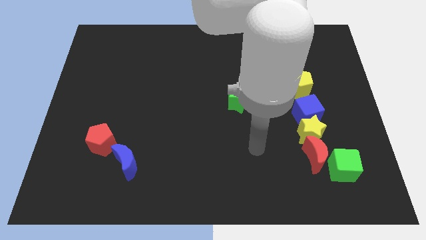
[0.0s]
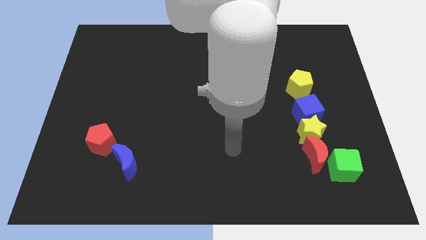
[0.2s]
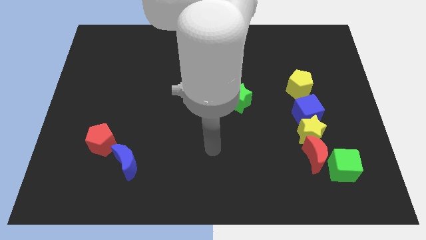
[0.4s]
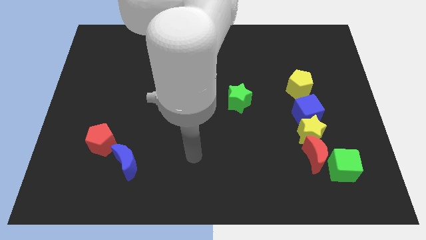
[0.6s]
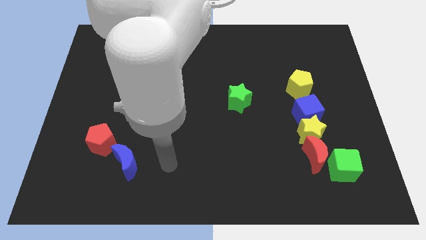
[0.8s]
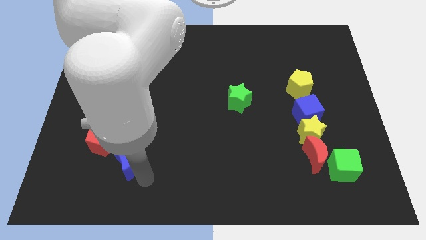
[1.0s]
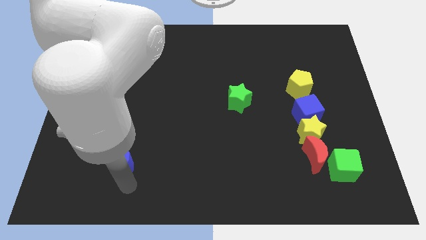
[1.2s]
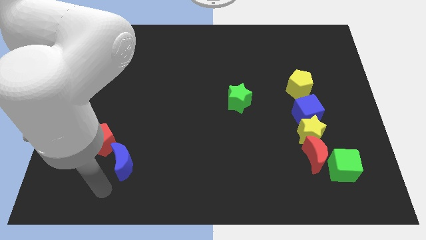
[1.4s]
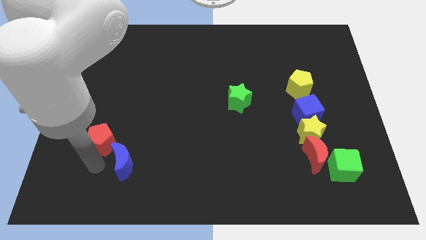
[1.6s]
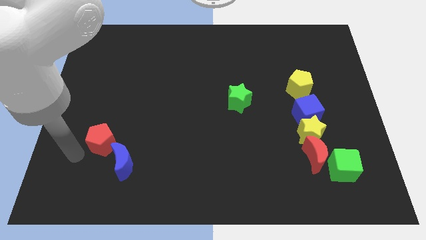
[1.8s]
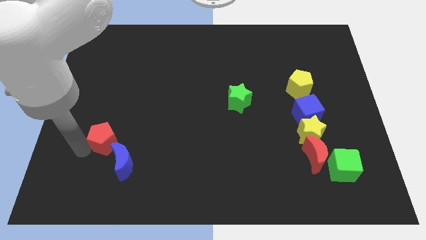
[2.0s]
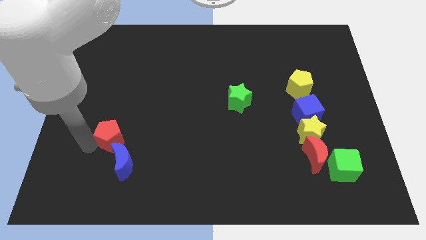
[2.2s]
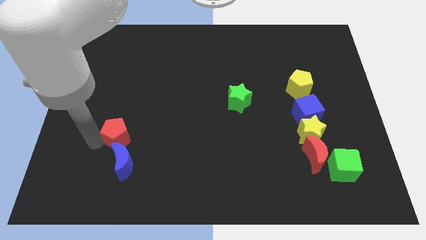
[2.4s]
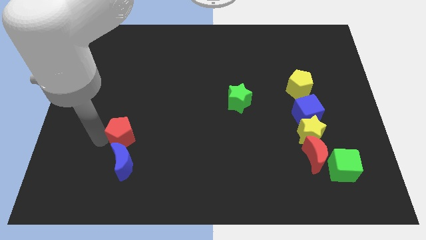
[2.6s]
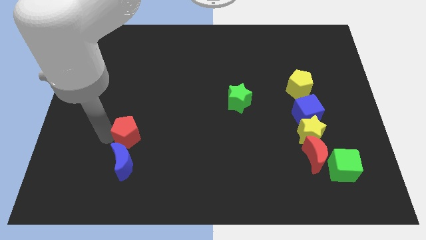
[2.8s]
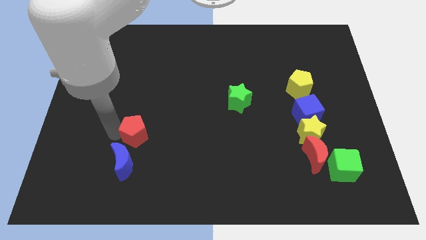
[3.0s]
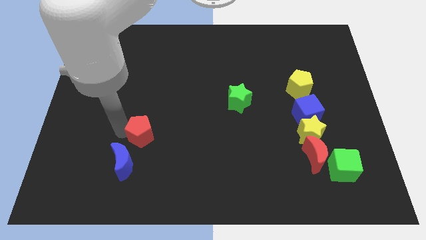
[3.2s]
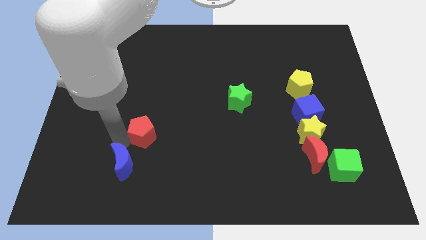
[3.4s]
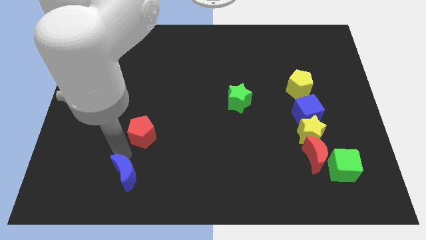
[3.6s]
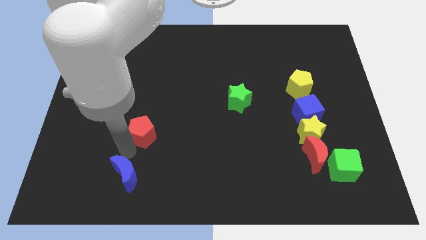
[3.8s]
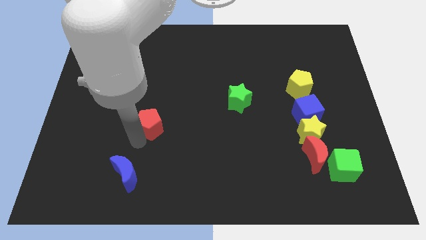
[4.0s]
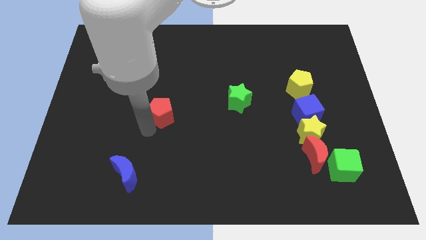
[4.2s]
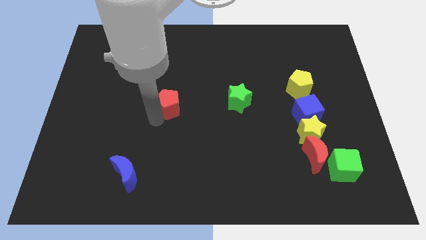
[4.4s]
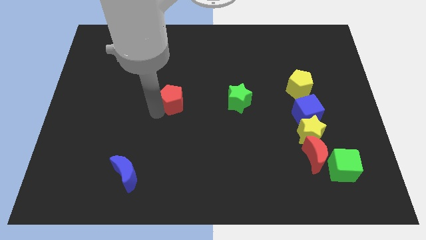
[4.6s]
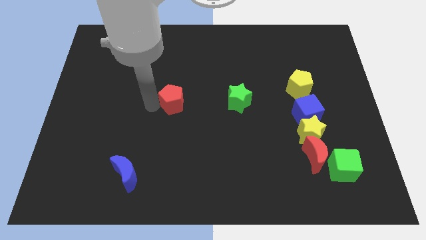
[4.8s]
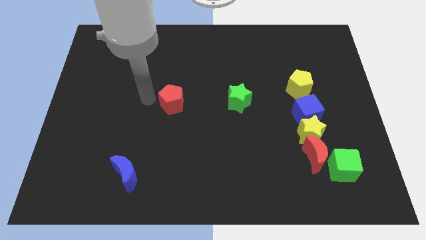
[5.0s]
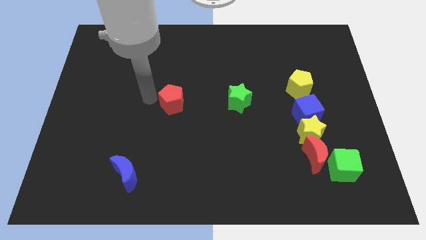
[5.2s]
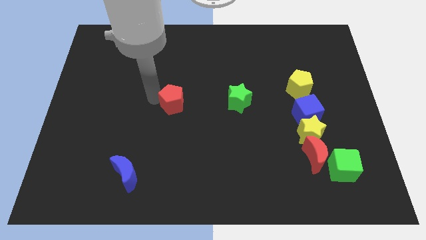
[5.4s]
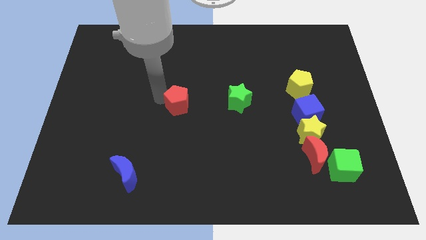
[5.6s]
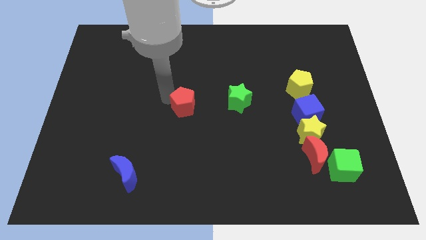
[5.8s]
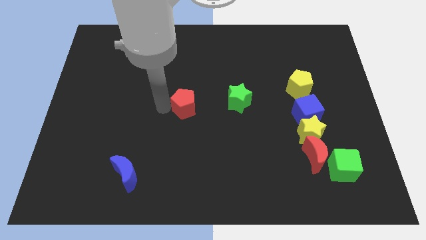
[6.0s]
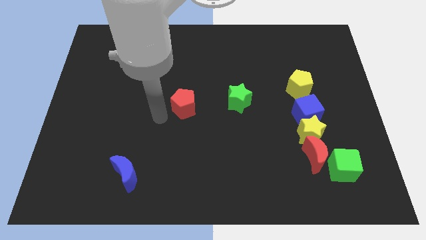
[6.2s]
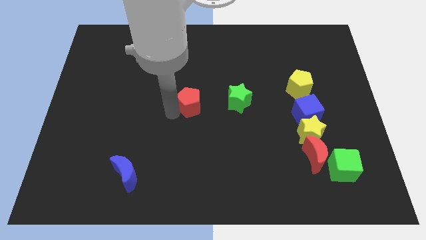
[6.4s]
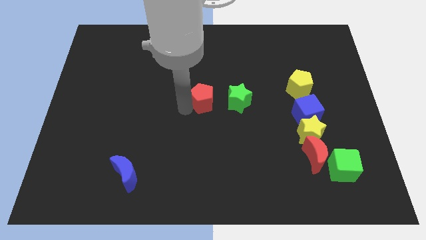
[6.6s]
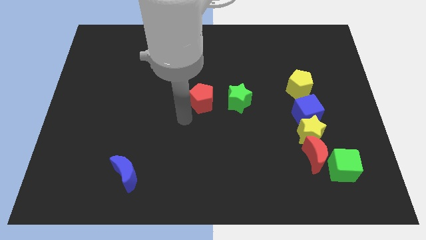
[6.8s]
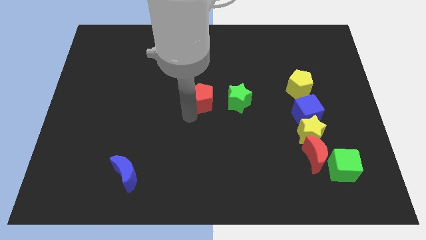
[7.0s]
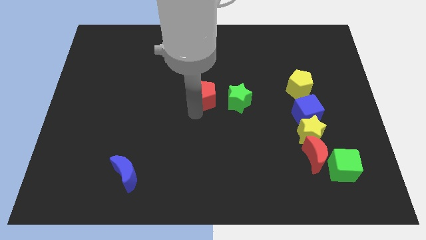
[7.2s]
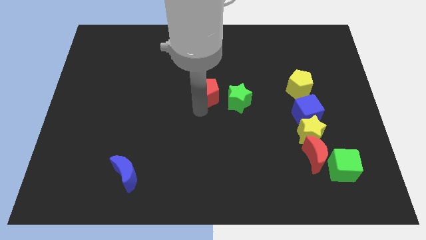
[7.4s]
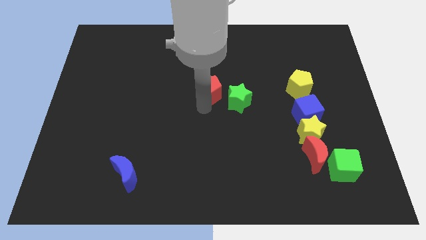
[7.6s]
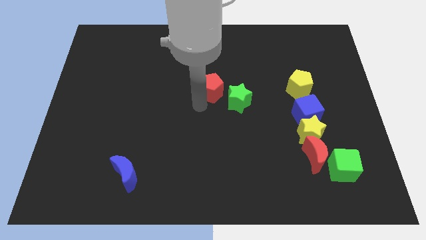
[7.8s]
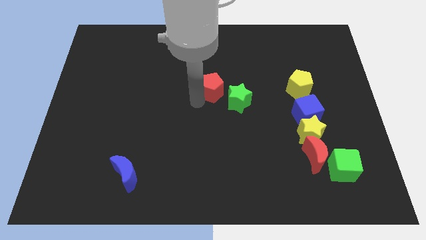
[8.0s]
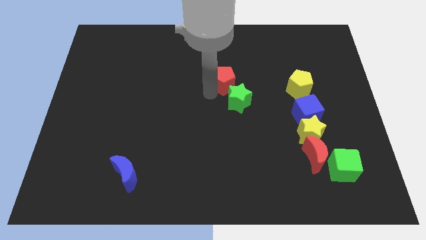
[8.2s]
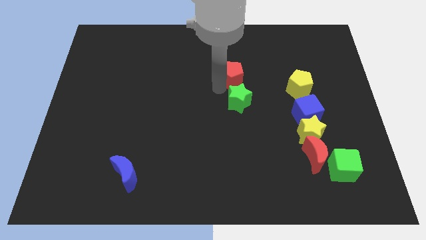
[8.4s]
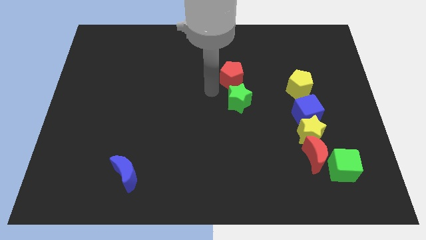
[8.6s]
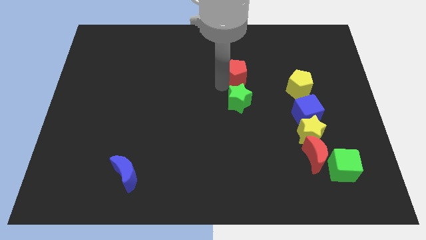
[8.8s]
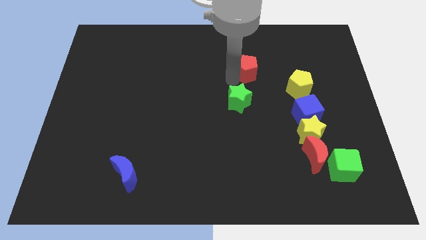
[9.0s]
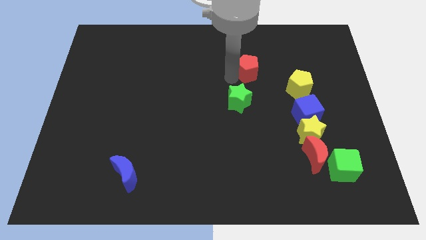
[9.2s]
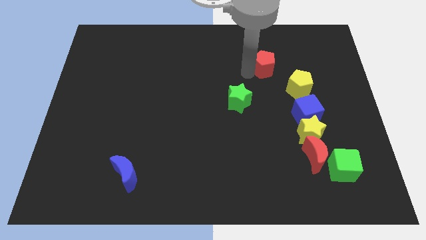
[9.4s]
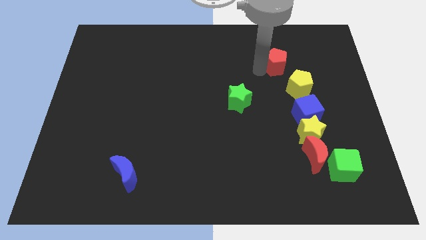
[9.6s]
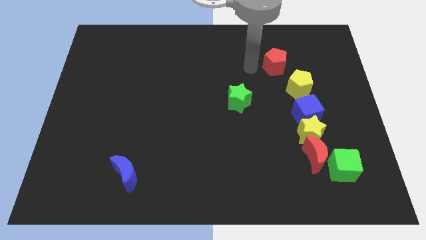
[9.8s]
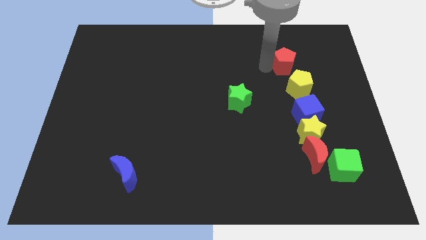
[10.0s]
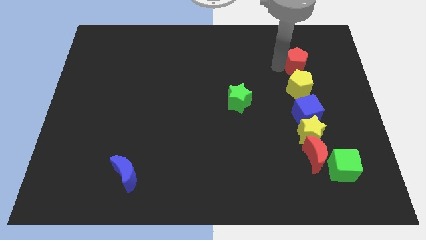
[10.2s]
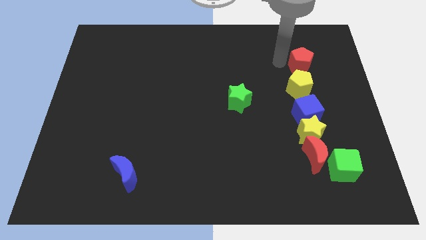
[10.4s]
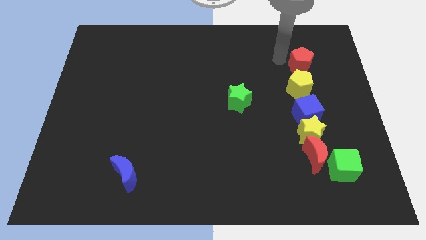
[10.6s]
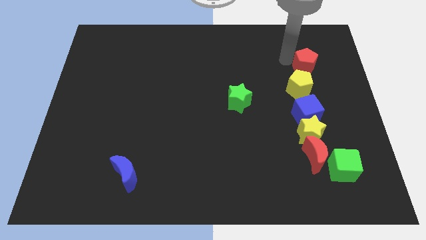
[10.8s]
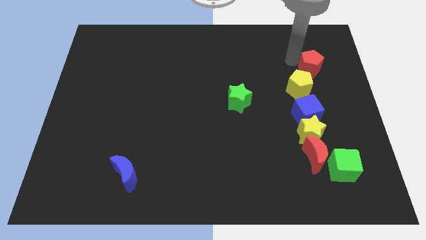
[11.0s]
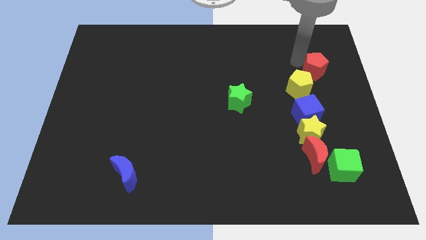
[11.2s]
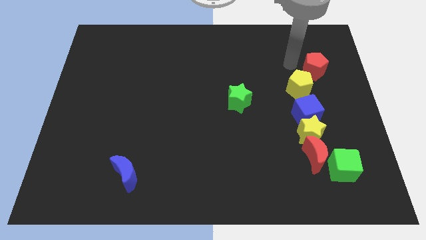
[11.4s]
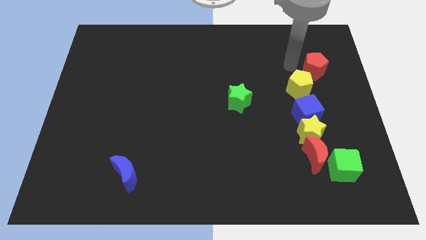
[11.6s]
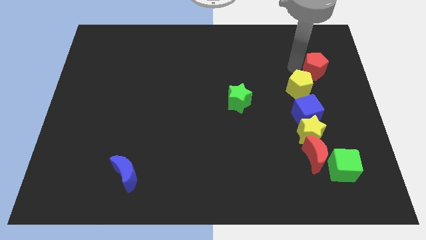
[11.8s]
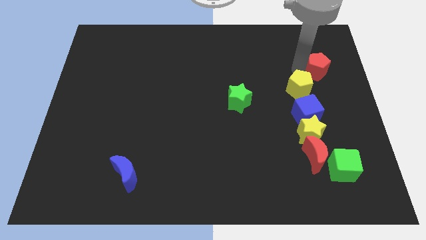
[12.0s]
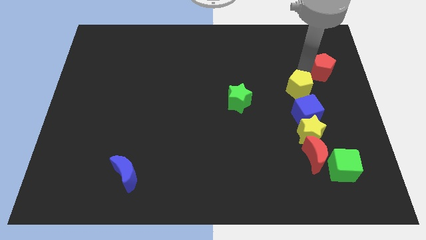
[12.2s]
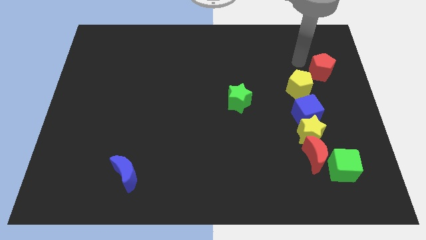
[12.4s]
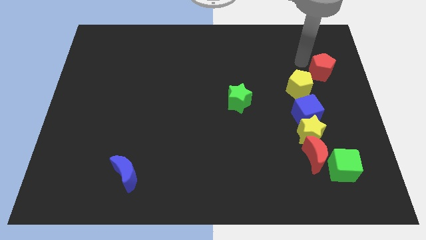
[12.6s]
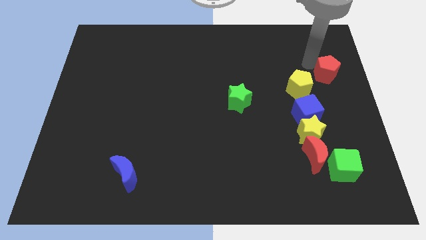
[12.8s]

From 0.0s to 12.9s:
put the red pentagon to the center right

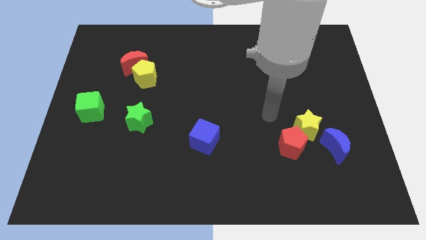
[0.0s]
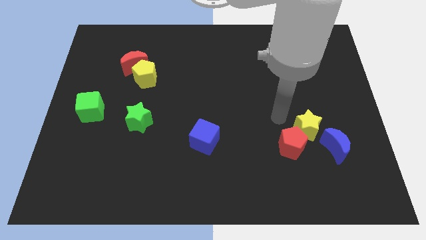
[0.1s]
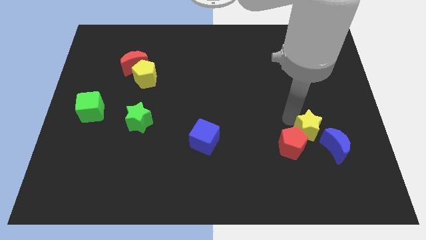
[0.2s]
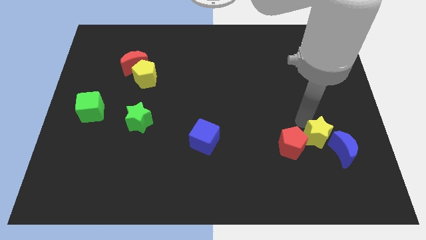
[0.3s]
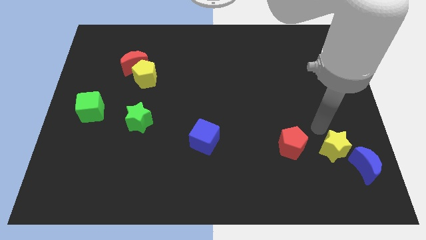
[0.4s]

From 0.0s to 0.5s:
slide the blue moon to the bottom right of the board
